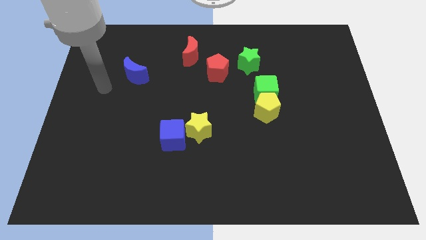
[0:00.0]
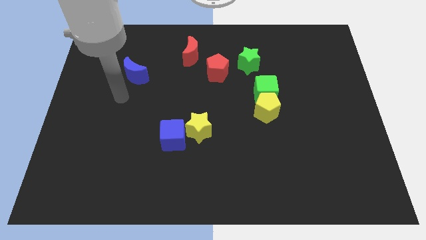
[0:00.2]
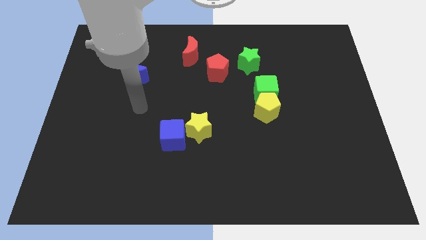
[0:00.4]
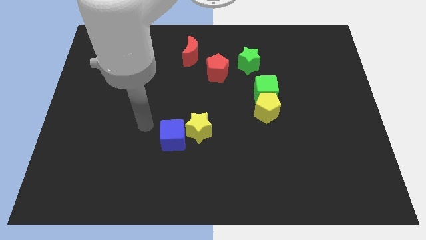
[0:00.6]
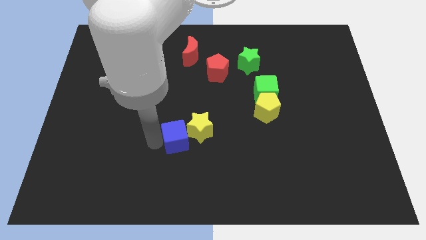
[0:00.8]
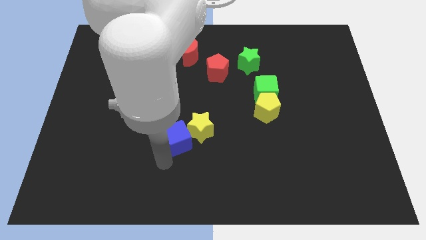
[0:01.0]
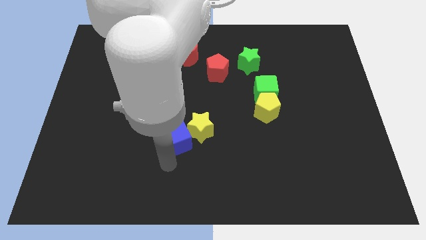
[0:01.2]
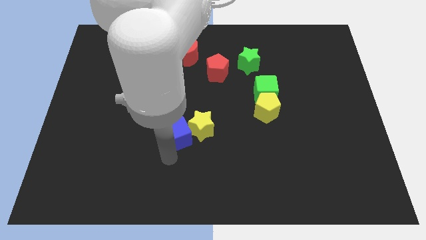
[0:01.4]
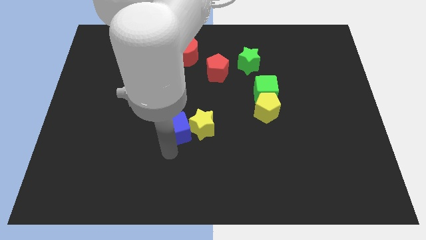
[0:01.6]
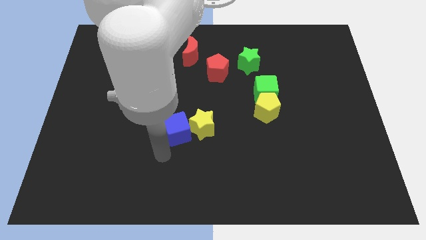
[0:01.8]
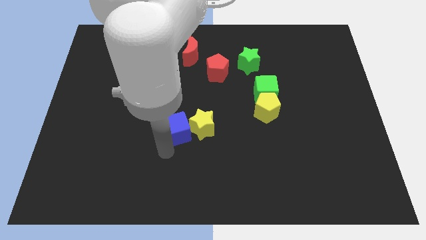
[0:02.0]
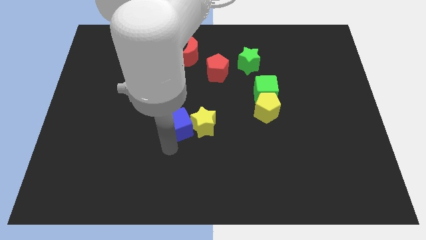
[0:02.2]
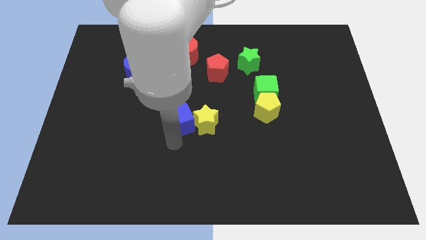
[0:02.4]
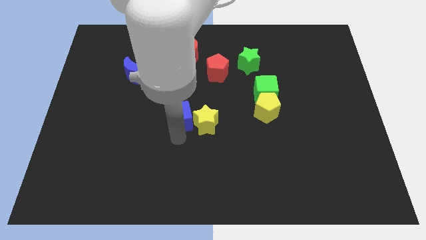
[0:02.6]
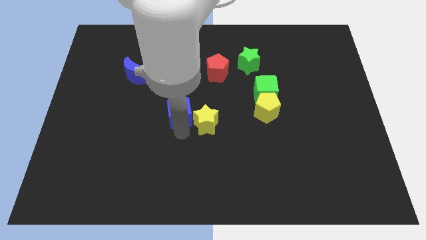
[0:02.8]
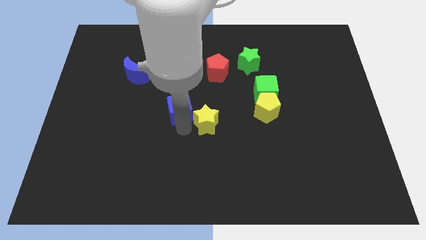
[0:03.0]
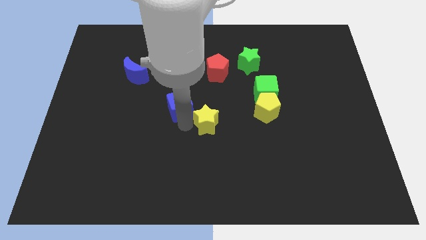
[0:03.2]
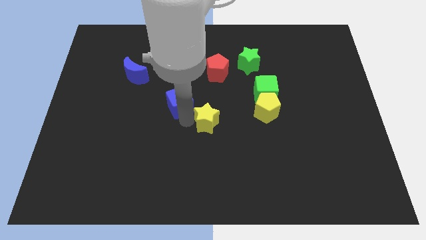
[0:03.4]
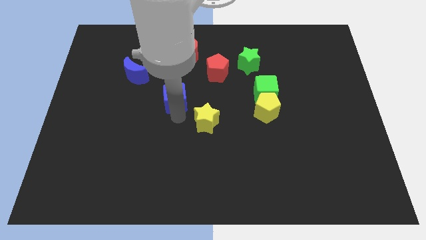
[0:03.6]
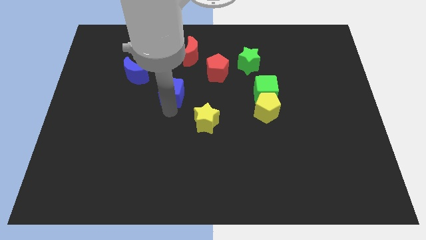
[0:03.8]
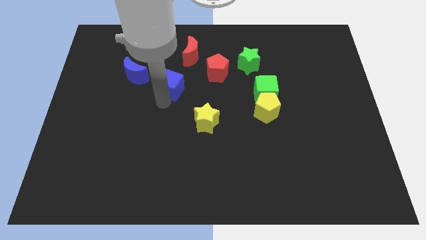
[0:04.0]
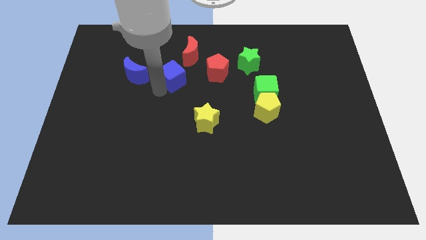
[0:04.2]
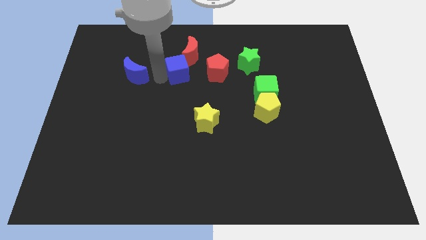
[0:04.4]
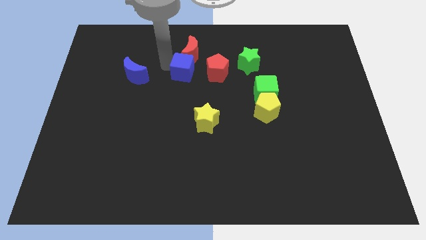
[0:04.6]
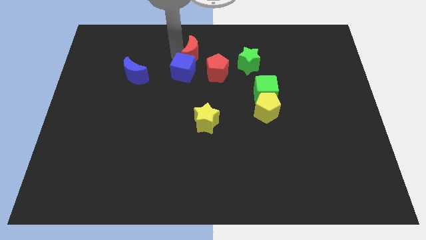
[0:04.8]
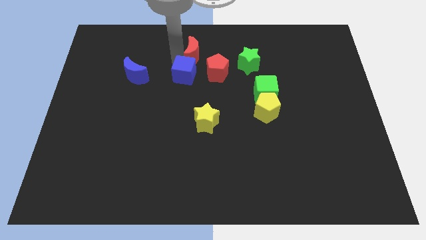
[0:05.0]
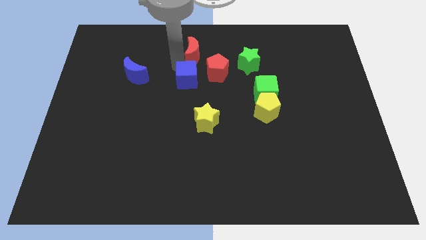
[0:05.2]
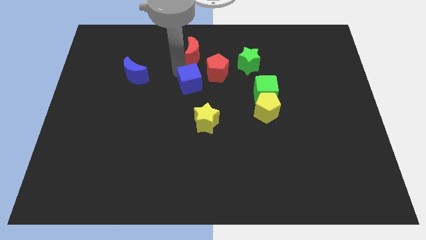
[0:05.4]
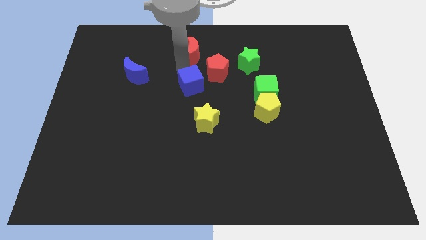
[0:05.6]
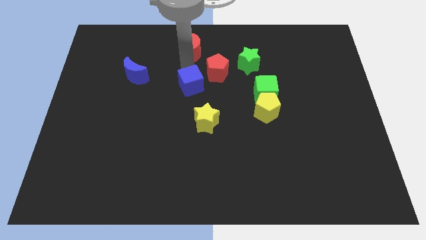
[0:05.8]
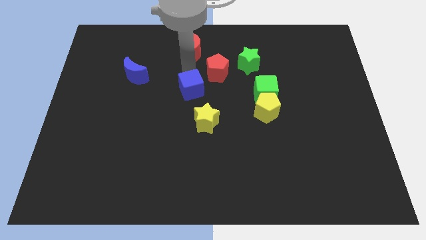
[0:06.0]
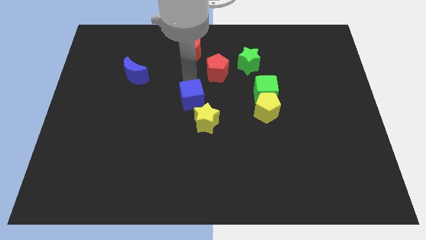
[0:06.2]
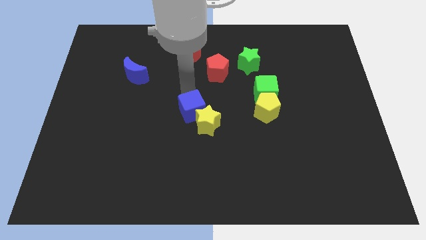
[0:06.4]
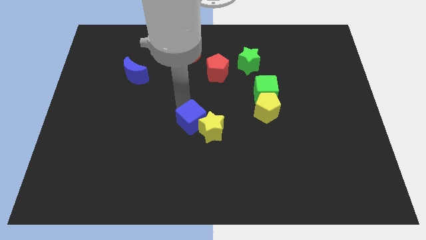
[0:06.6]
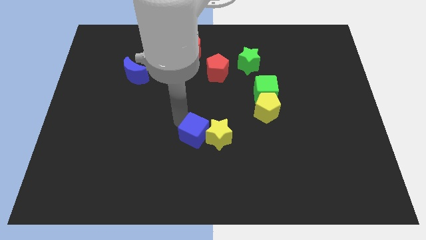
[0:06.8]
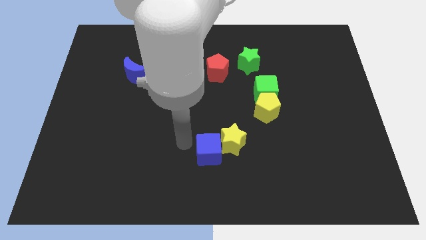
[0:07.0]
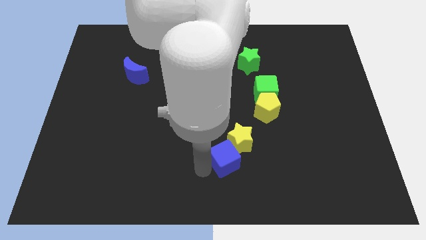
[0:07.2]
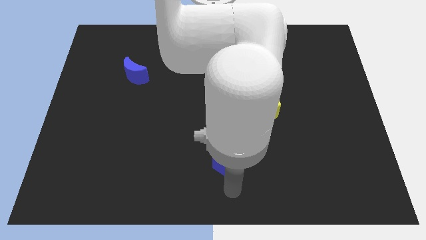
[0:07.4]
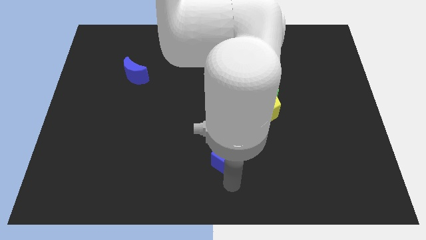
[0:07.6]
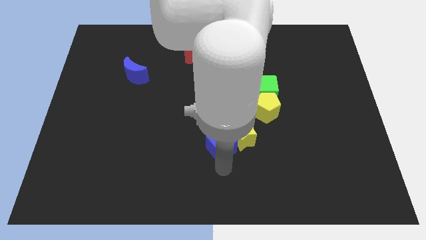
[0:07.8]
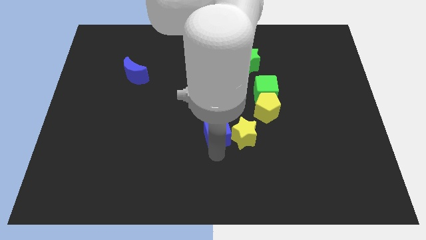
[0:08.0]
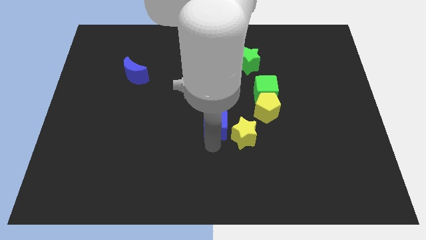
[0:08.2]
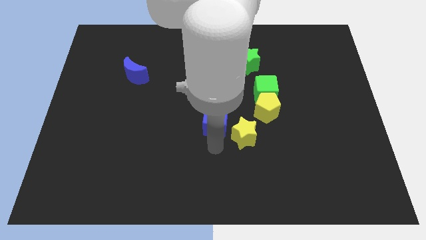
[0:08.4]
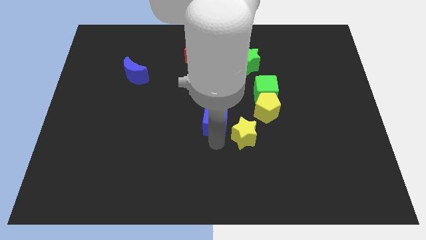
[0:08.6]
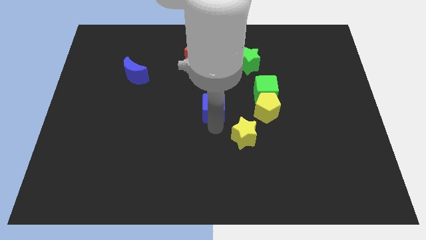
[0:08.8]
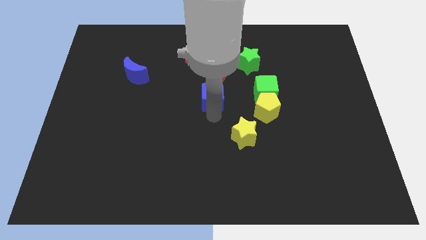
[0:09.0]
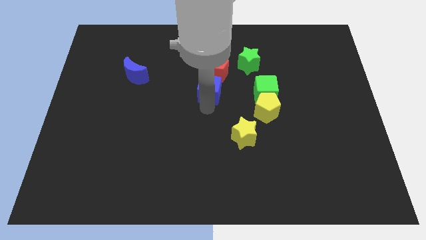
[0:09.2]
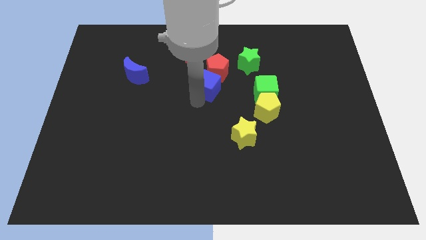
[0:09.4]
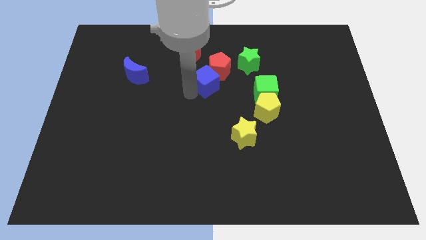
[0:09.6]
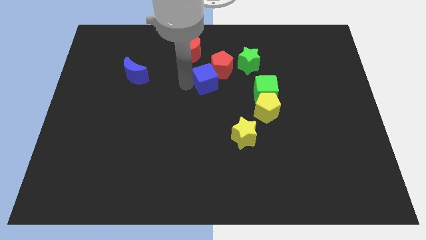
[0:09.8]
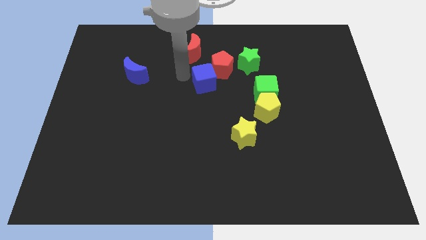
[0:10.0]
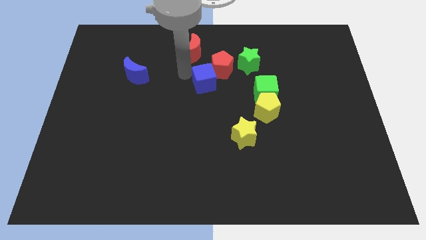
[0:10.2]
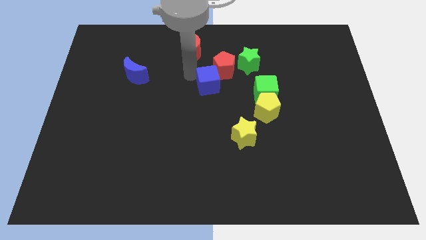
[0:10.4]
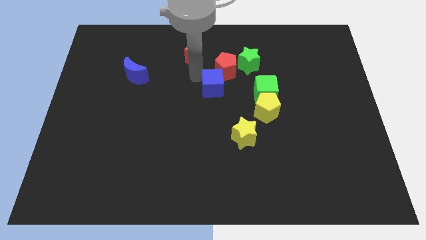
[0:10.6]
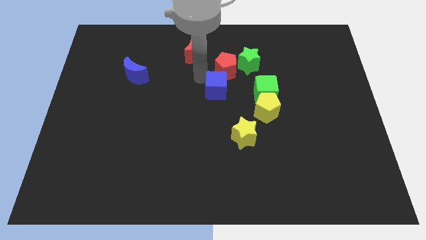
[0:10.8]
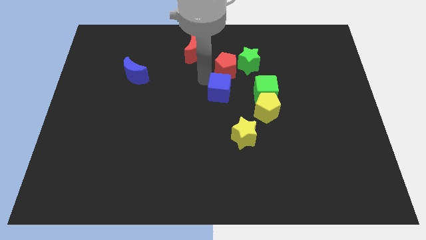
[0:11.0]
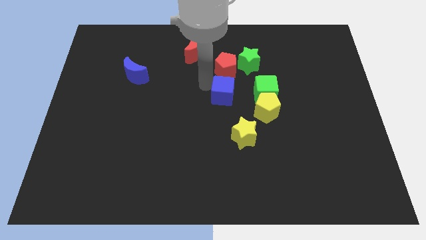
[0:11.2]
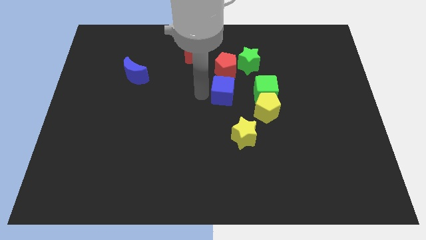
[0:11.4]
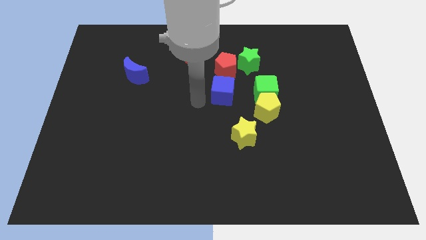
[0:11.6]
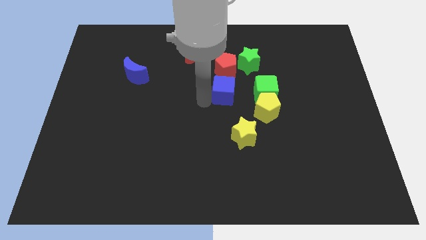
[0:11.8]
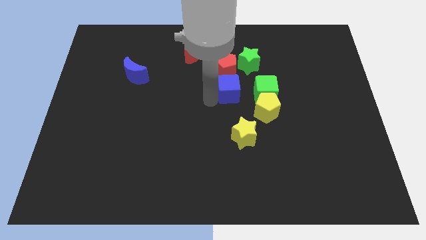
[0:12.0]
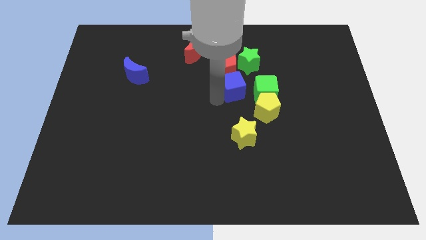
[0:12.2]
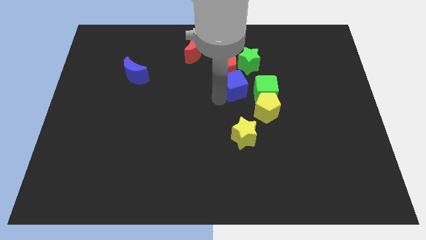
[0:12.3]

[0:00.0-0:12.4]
push the blue cube up and right

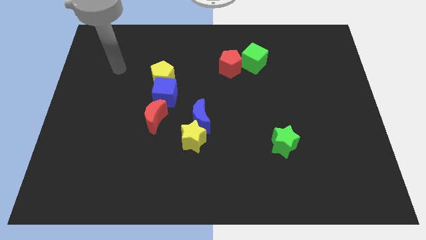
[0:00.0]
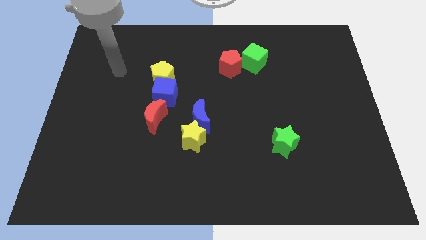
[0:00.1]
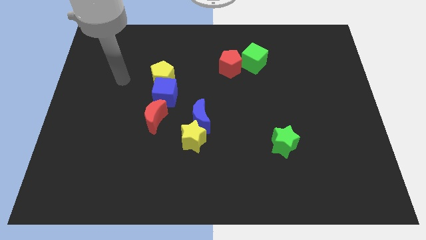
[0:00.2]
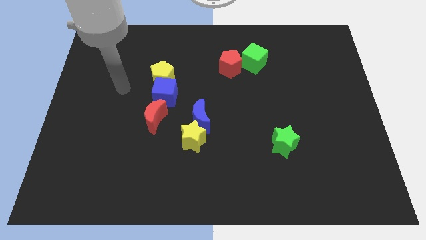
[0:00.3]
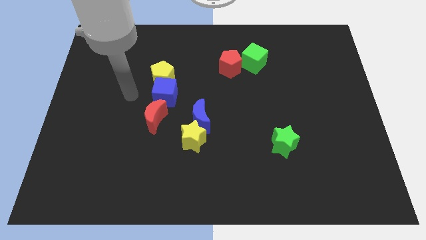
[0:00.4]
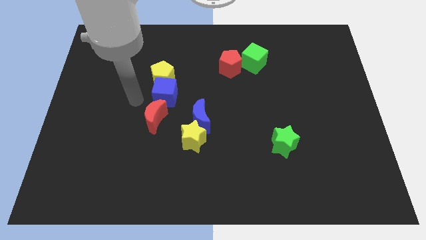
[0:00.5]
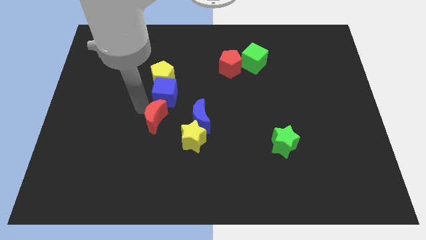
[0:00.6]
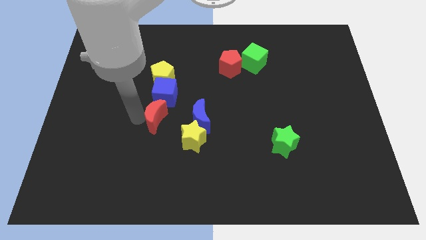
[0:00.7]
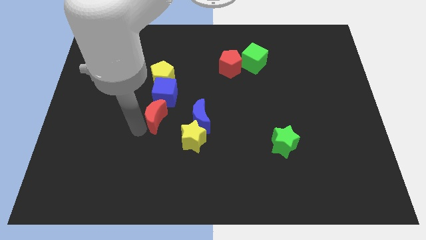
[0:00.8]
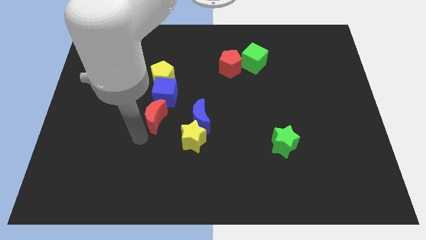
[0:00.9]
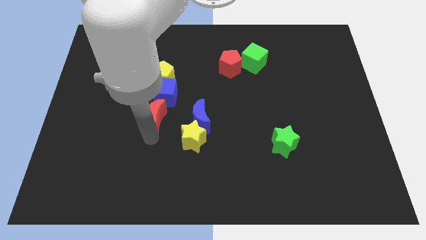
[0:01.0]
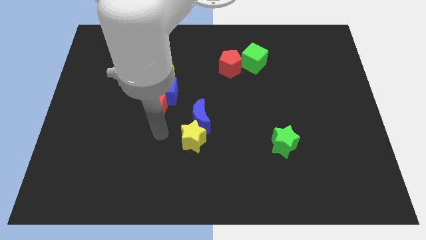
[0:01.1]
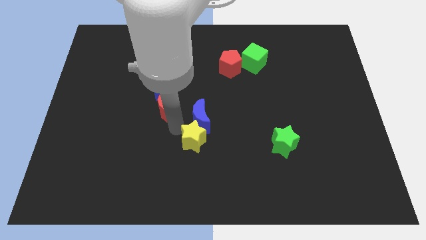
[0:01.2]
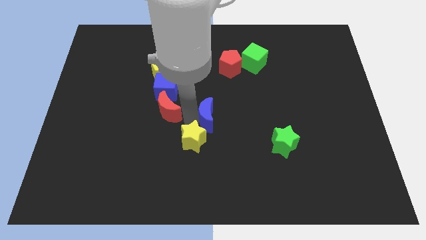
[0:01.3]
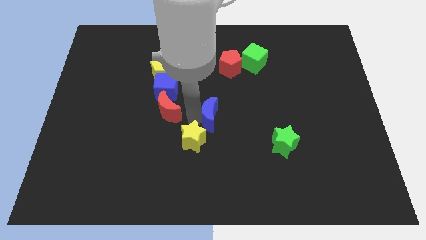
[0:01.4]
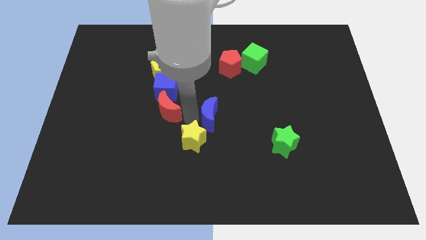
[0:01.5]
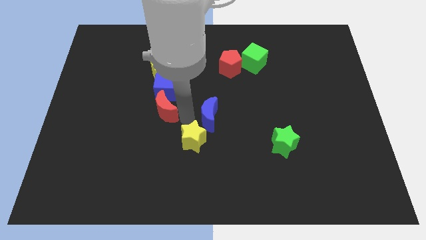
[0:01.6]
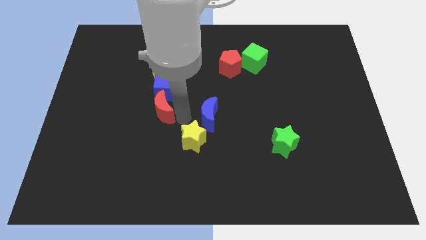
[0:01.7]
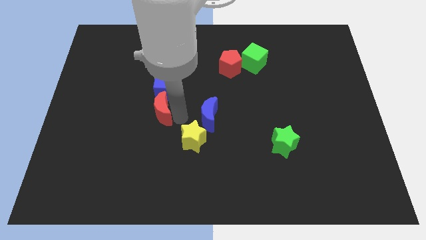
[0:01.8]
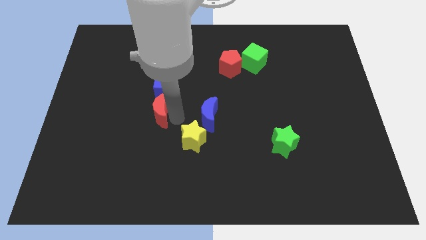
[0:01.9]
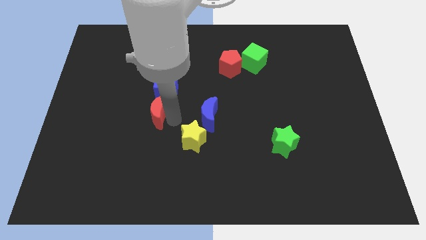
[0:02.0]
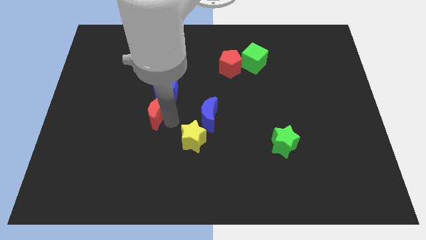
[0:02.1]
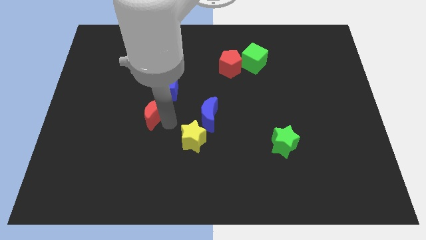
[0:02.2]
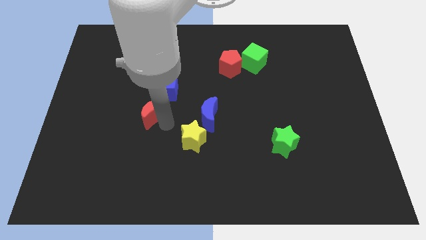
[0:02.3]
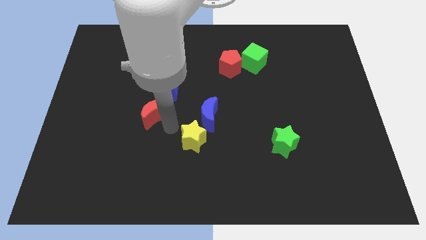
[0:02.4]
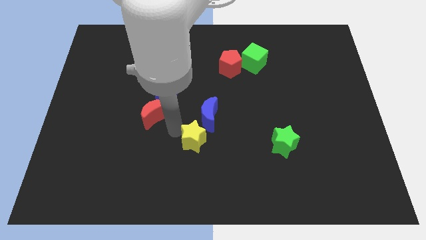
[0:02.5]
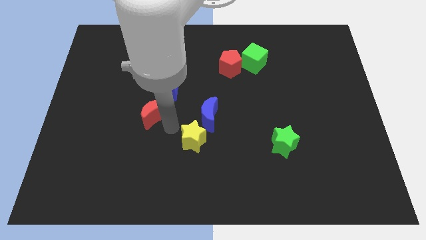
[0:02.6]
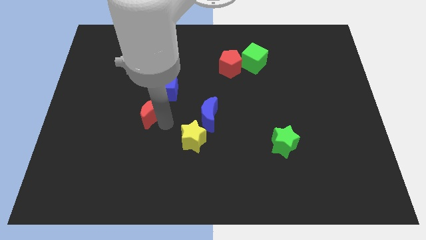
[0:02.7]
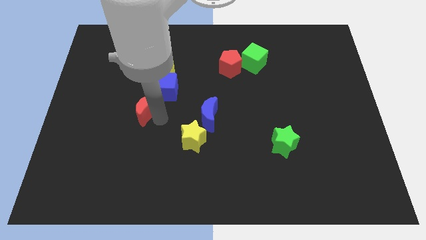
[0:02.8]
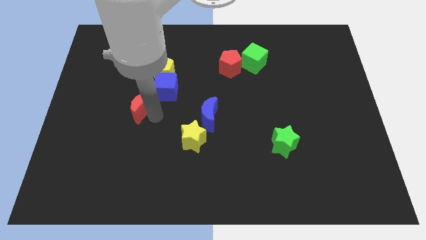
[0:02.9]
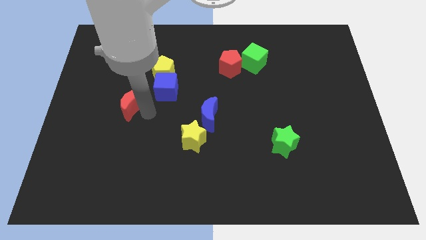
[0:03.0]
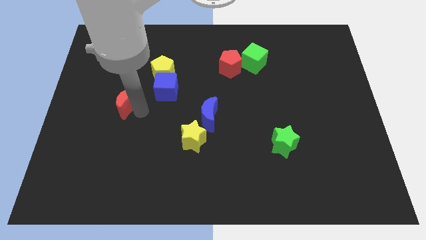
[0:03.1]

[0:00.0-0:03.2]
push the red moon a little bit up and left diagonally
